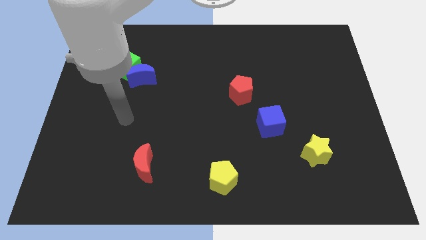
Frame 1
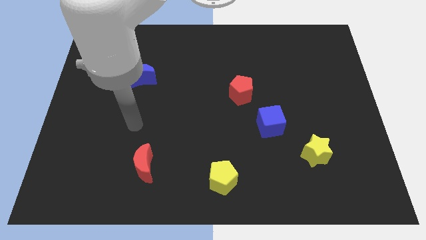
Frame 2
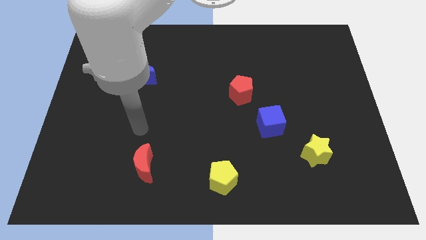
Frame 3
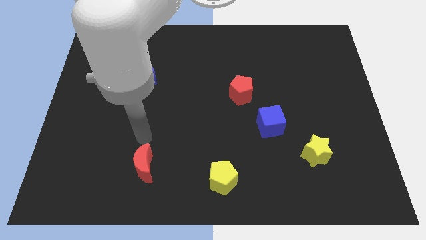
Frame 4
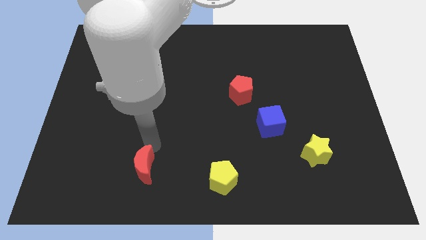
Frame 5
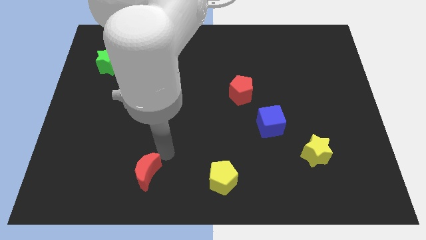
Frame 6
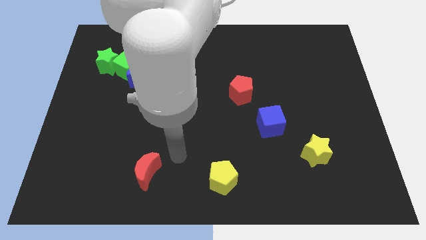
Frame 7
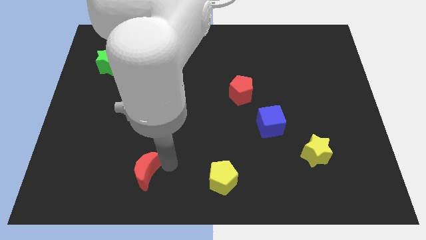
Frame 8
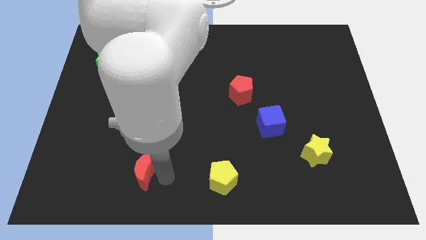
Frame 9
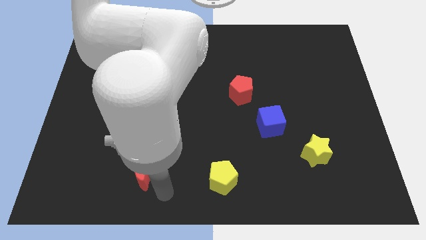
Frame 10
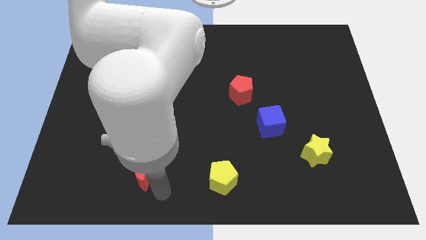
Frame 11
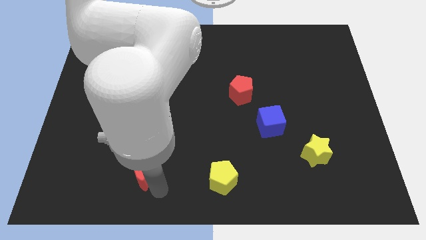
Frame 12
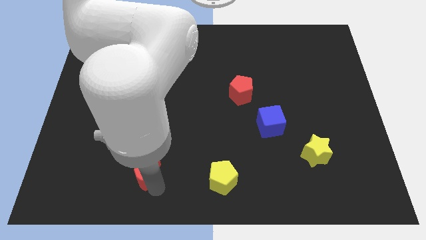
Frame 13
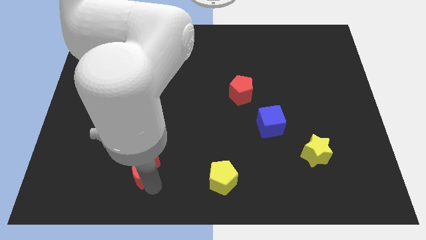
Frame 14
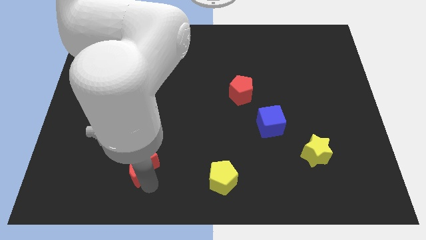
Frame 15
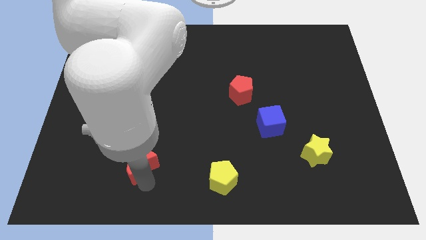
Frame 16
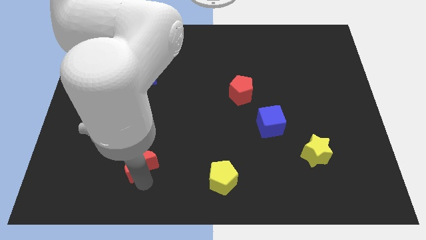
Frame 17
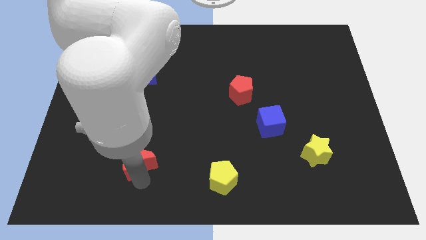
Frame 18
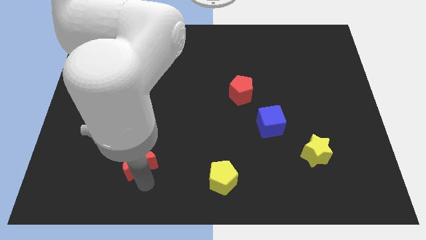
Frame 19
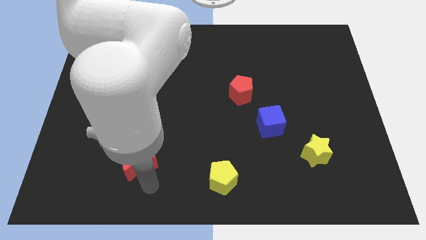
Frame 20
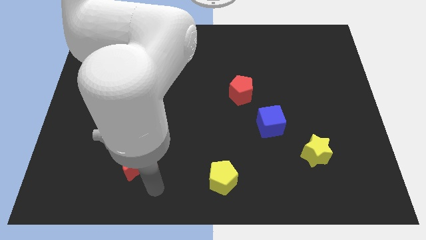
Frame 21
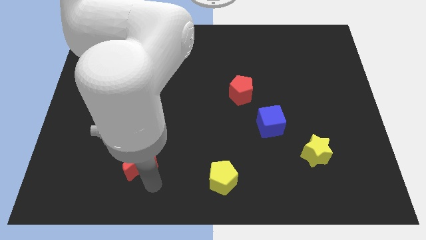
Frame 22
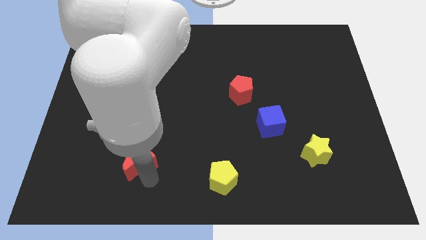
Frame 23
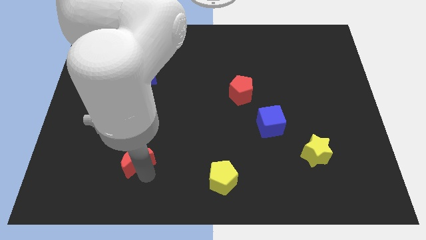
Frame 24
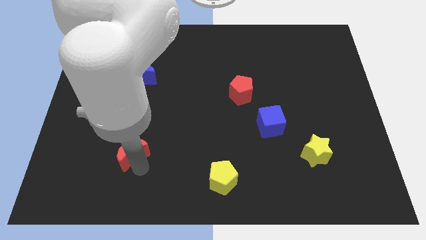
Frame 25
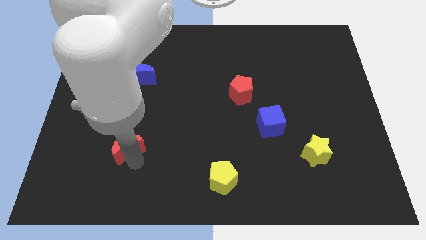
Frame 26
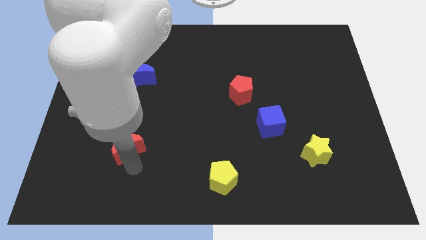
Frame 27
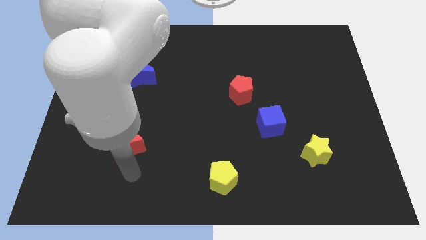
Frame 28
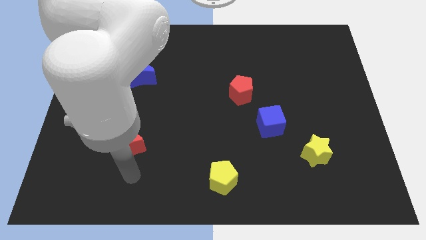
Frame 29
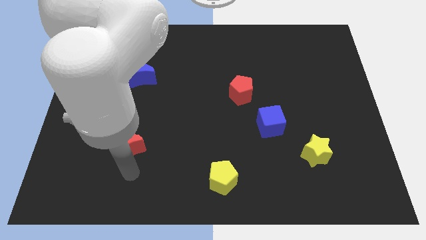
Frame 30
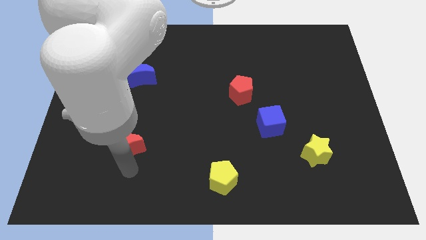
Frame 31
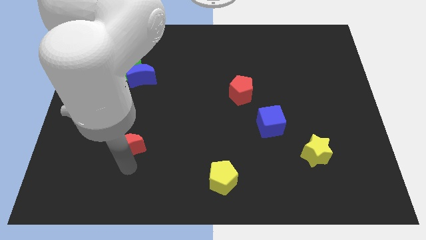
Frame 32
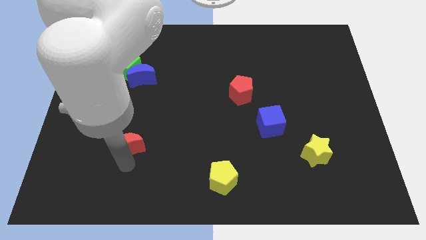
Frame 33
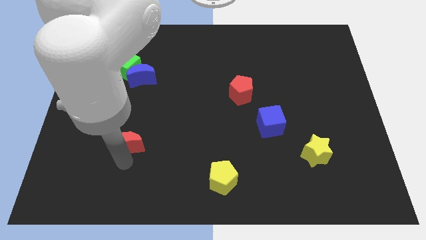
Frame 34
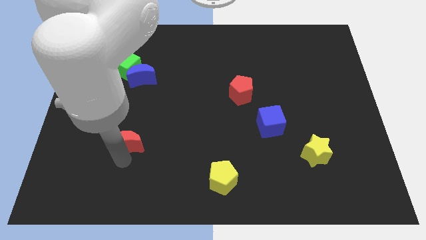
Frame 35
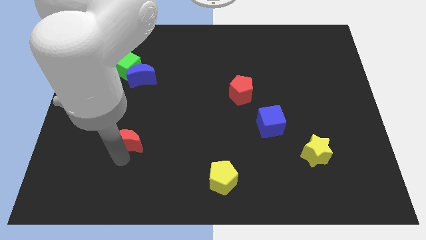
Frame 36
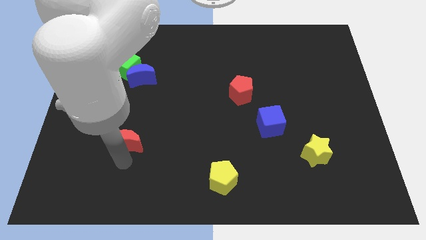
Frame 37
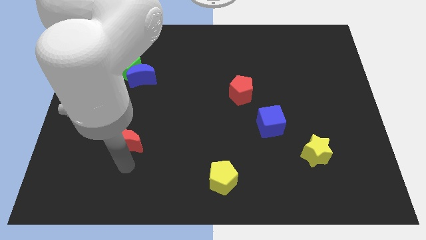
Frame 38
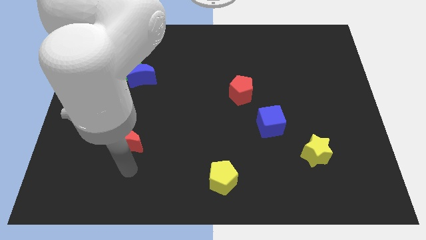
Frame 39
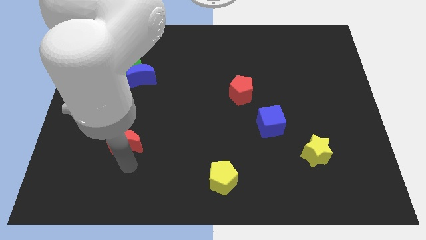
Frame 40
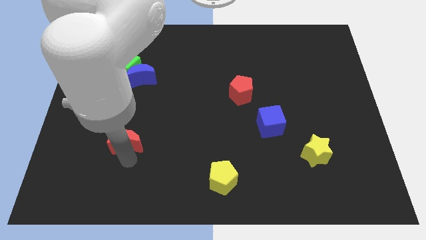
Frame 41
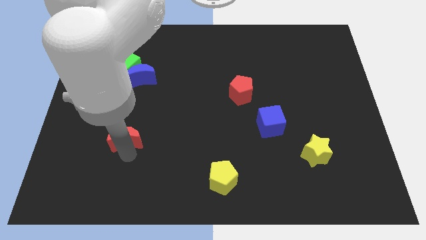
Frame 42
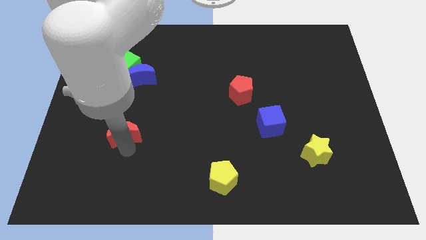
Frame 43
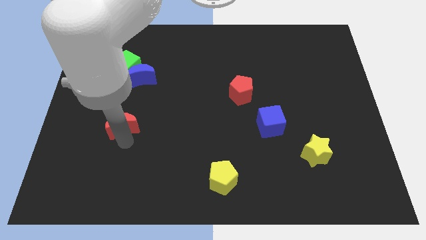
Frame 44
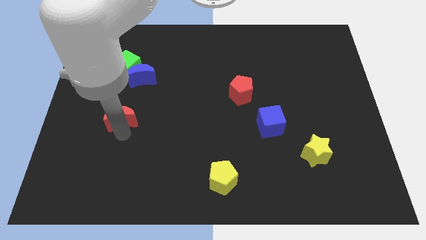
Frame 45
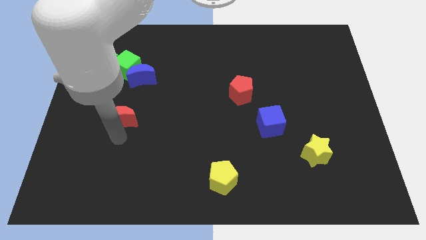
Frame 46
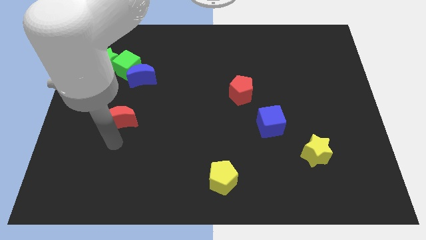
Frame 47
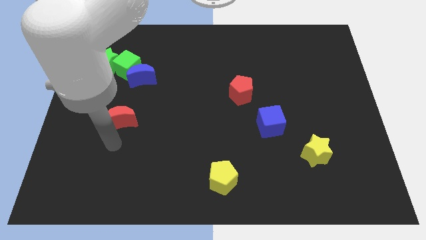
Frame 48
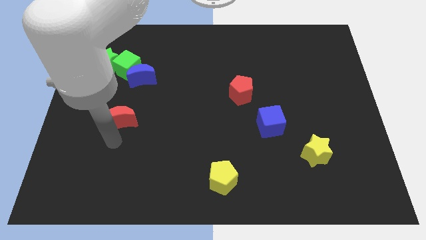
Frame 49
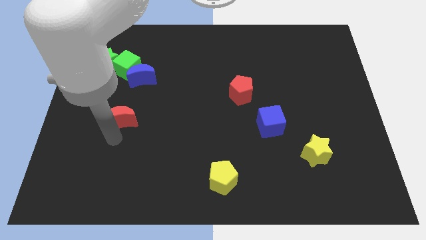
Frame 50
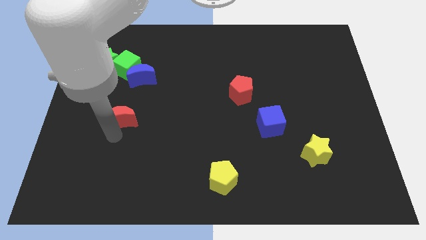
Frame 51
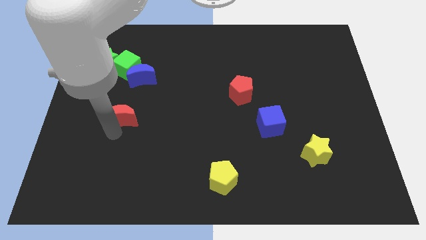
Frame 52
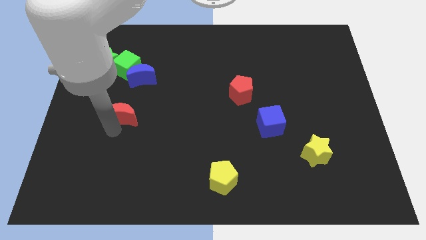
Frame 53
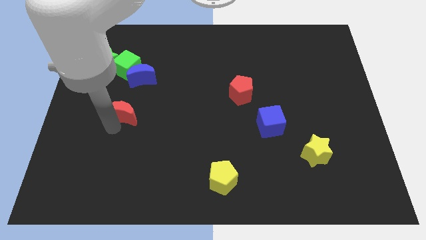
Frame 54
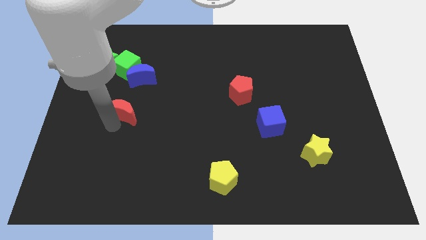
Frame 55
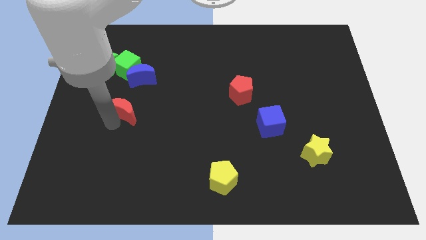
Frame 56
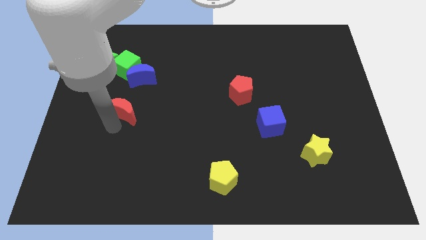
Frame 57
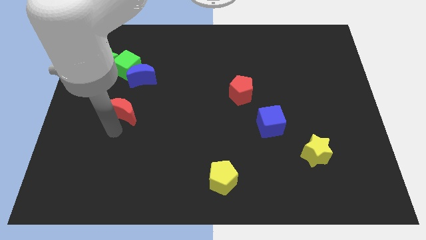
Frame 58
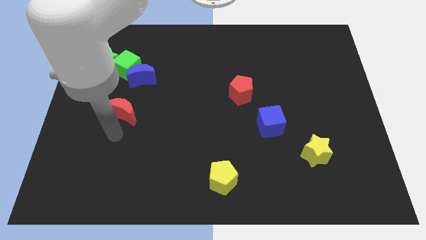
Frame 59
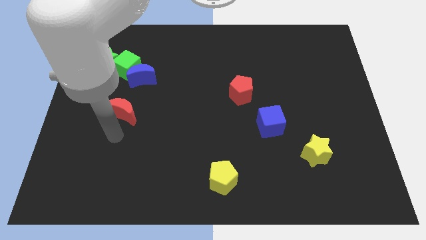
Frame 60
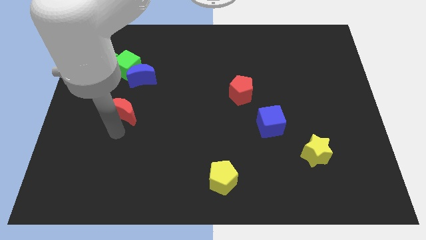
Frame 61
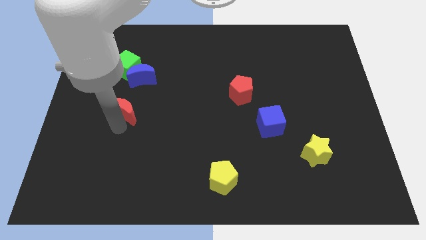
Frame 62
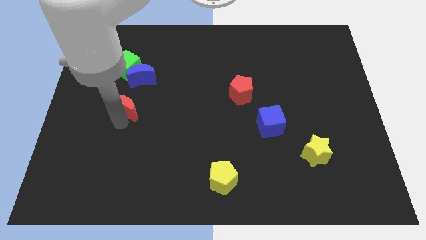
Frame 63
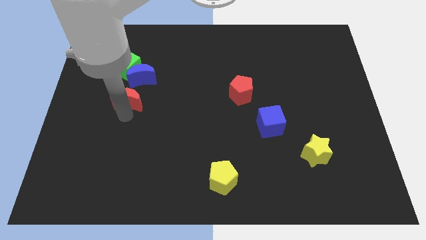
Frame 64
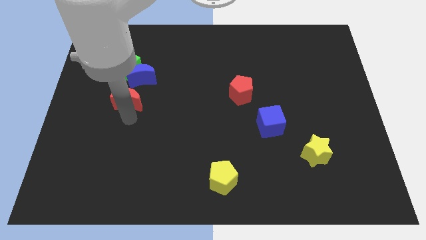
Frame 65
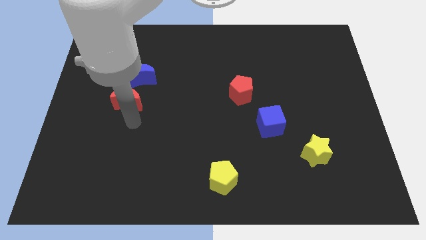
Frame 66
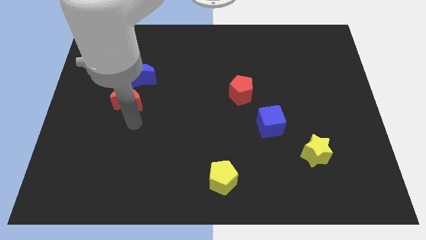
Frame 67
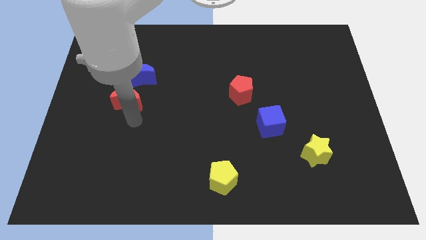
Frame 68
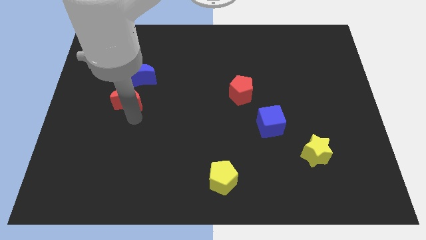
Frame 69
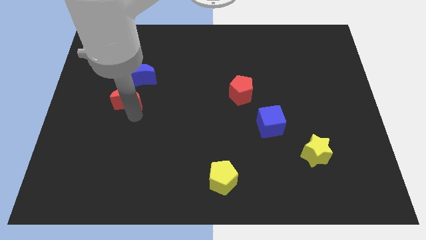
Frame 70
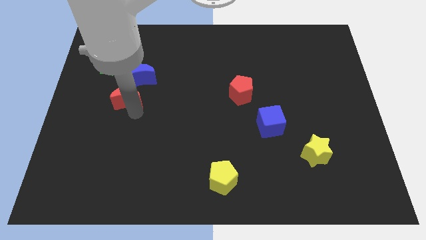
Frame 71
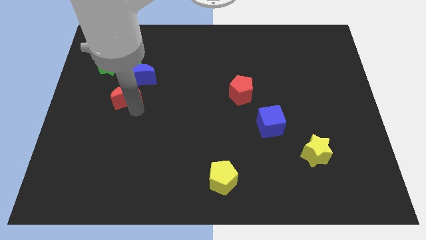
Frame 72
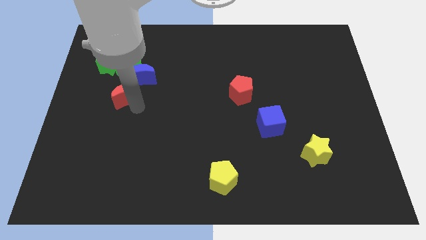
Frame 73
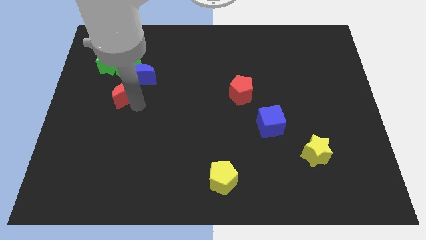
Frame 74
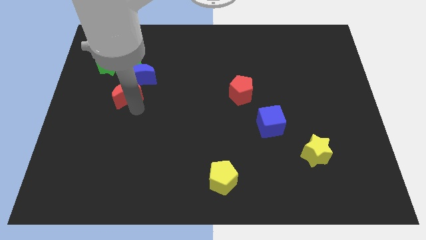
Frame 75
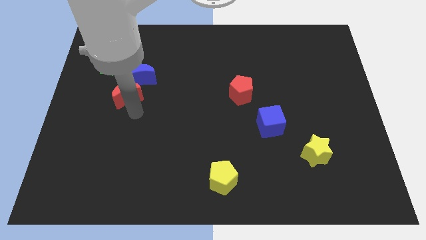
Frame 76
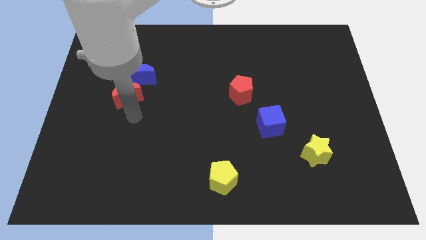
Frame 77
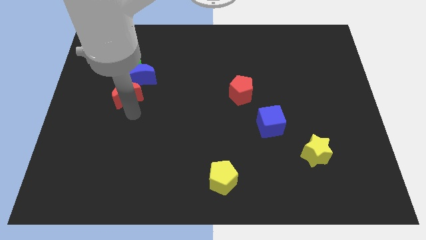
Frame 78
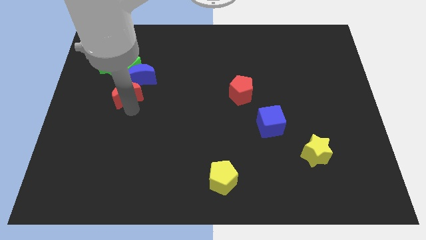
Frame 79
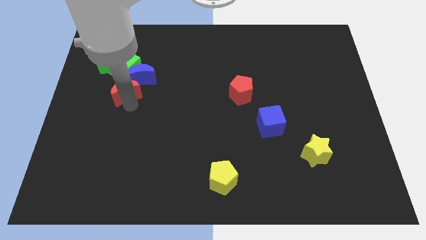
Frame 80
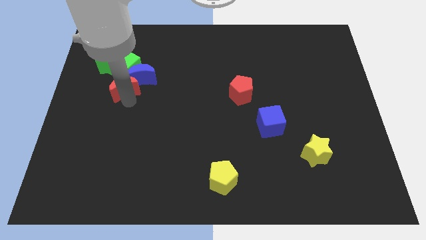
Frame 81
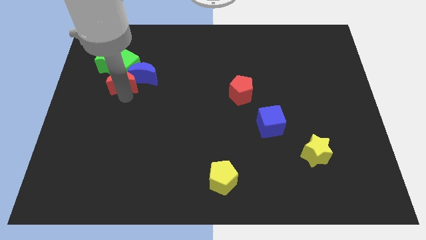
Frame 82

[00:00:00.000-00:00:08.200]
put the red moon to the green cube
